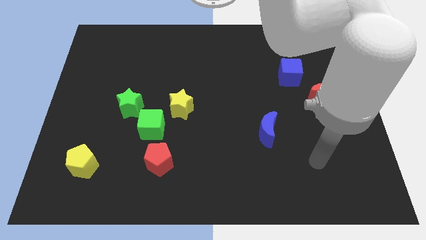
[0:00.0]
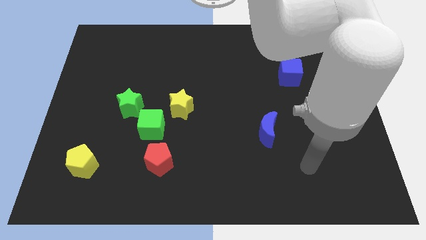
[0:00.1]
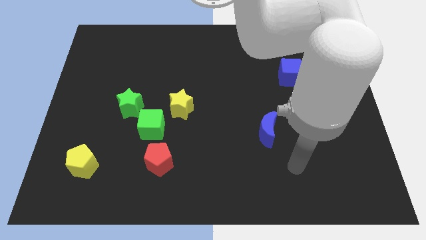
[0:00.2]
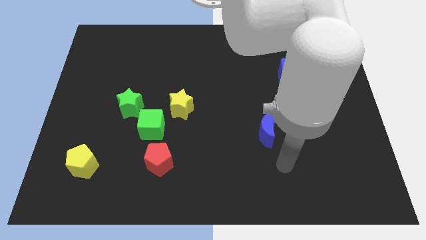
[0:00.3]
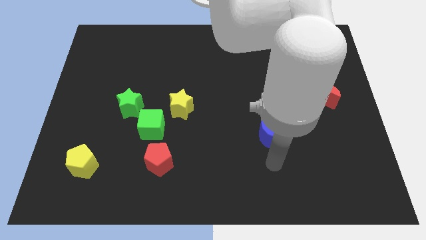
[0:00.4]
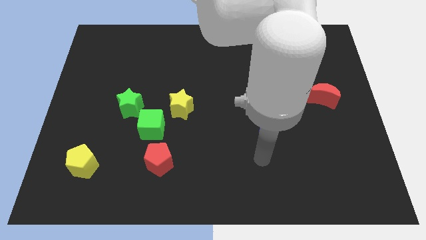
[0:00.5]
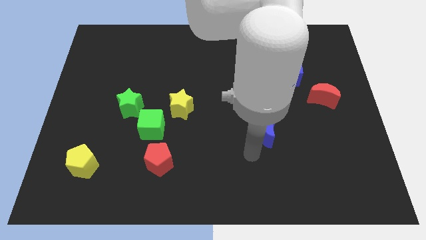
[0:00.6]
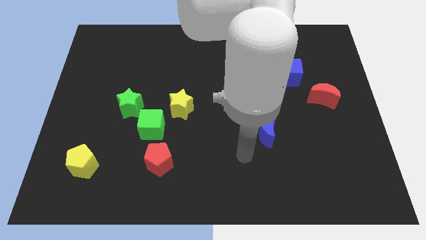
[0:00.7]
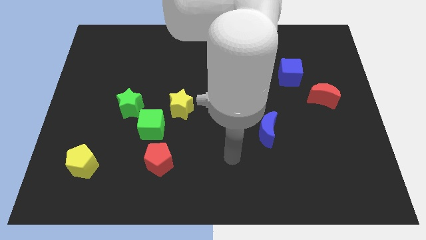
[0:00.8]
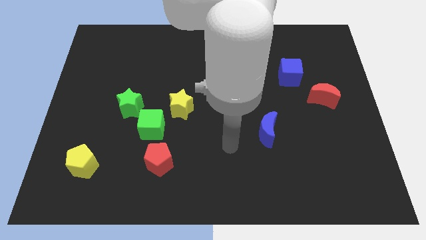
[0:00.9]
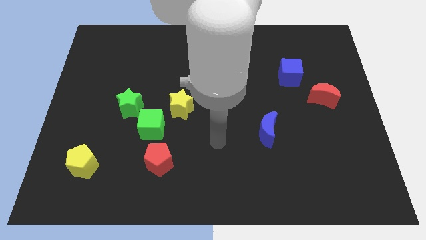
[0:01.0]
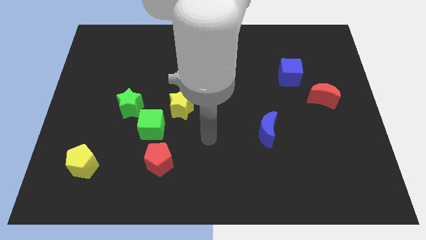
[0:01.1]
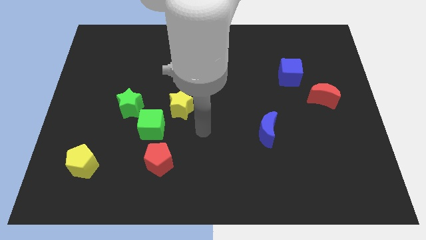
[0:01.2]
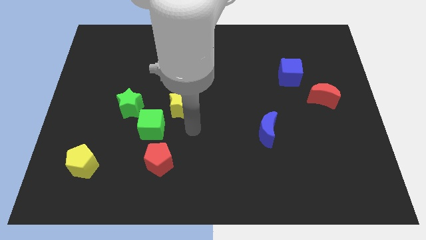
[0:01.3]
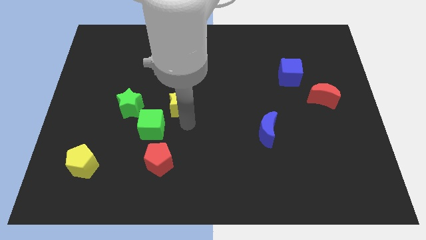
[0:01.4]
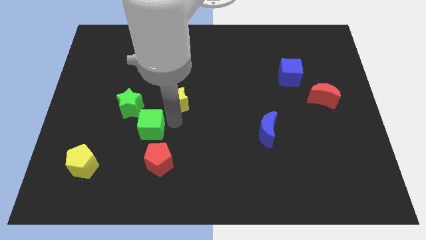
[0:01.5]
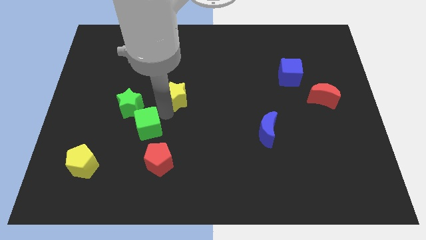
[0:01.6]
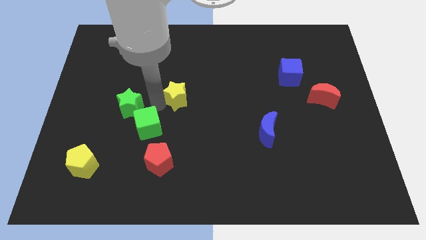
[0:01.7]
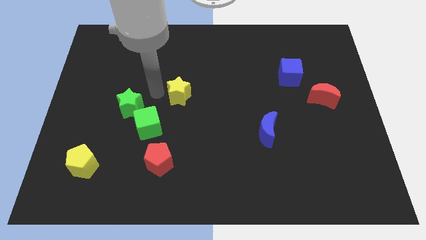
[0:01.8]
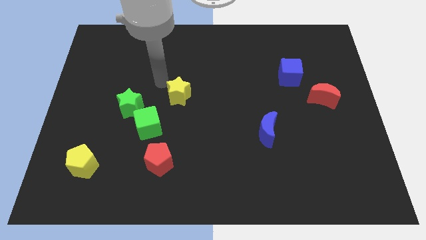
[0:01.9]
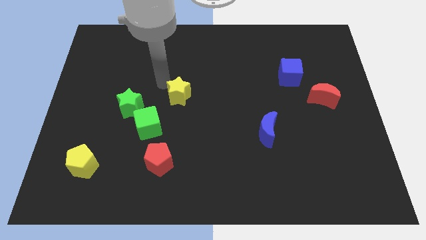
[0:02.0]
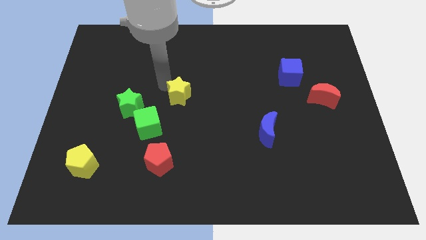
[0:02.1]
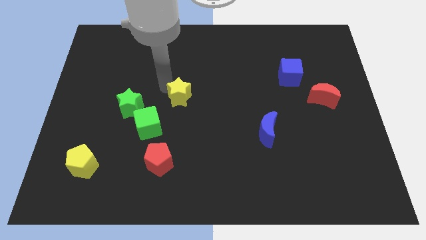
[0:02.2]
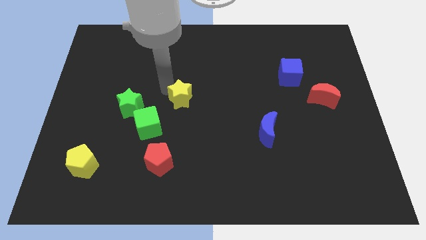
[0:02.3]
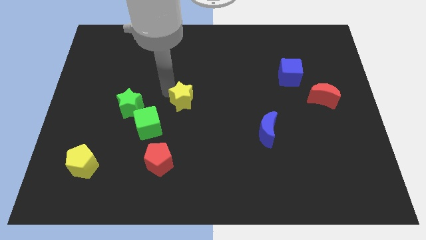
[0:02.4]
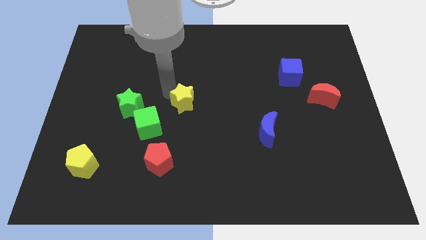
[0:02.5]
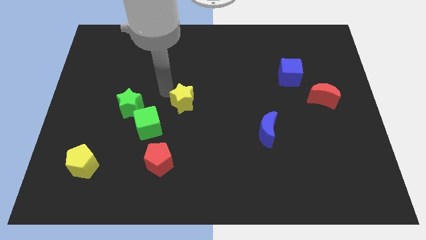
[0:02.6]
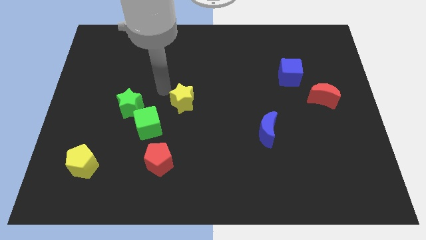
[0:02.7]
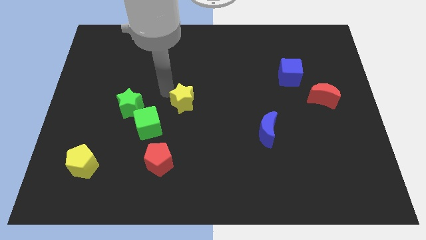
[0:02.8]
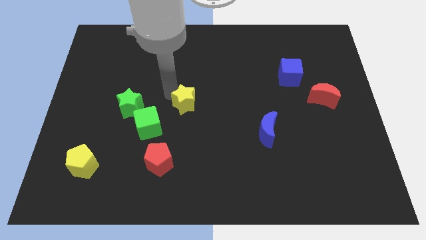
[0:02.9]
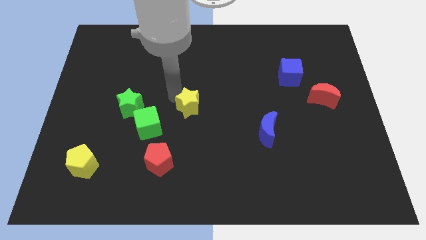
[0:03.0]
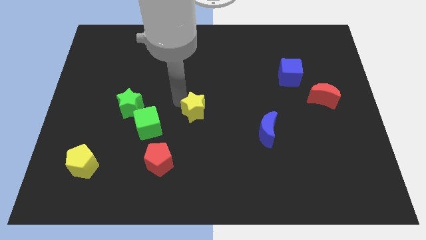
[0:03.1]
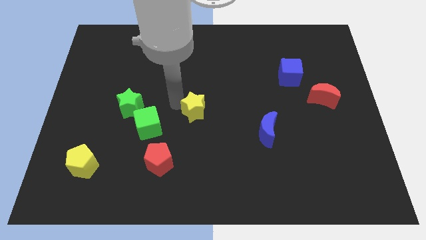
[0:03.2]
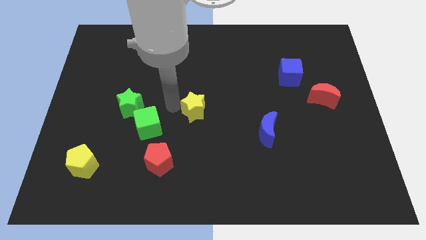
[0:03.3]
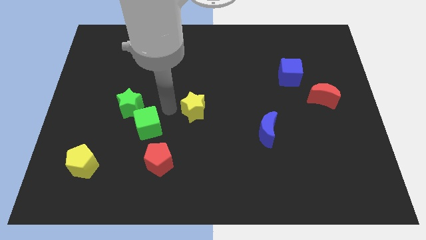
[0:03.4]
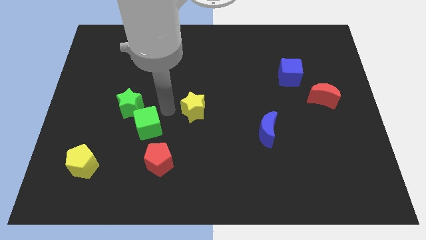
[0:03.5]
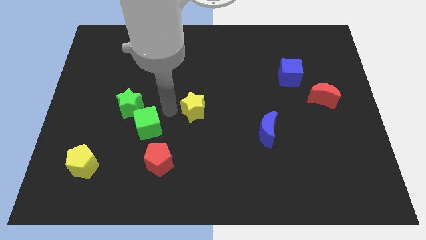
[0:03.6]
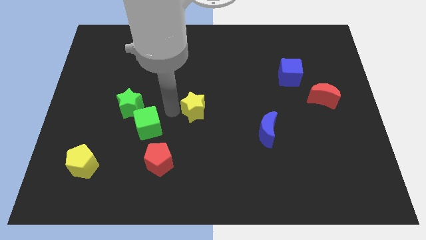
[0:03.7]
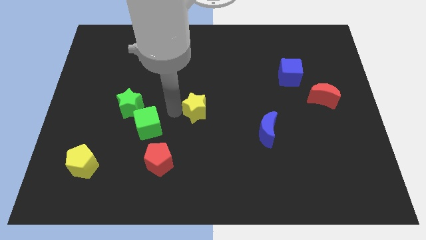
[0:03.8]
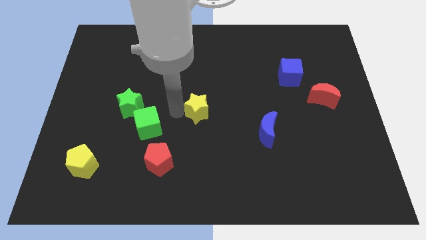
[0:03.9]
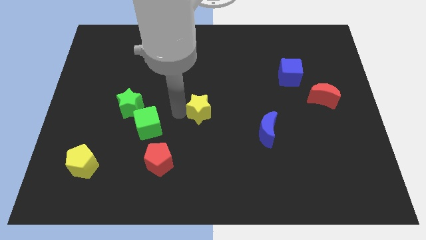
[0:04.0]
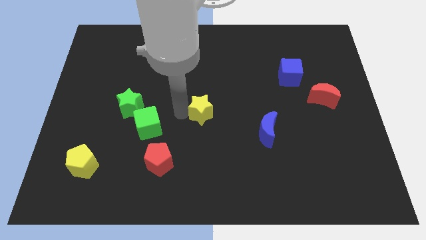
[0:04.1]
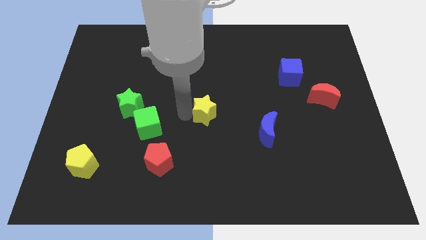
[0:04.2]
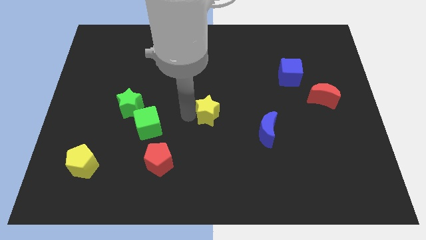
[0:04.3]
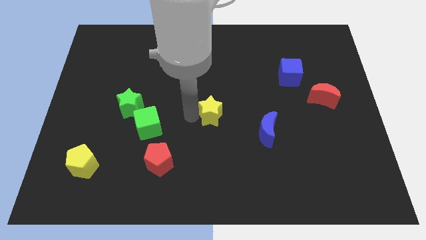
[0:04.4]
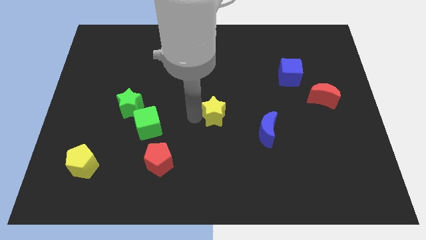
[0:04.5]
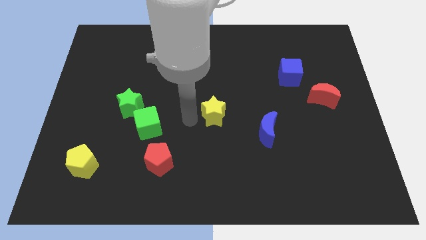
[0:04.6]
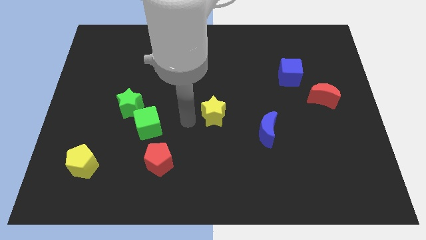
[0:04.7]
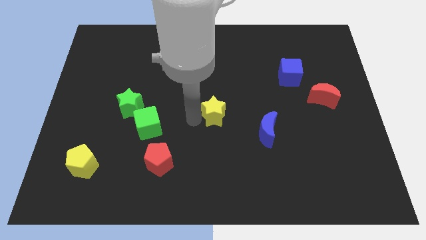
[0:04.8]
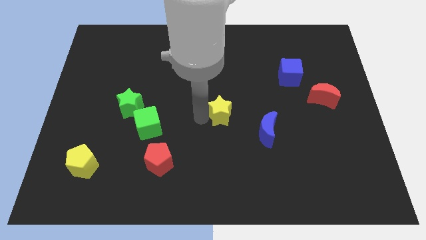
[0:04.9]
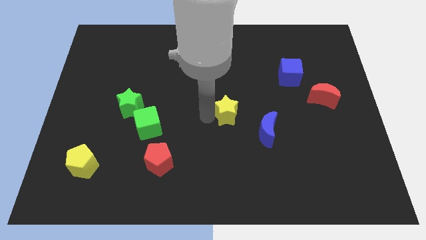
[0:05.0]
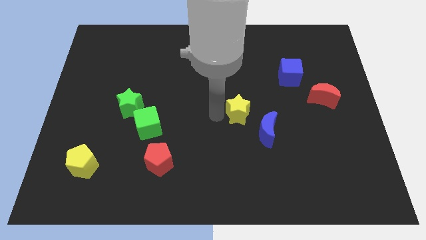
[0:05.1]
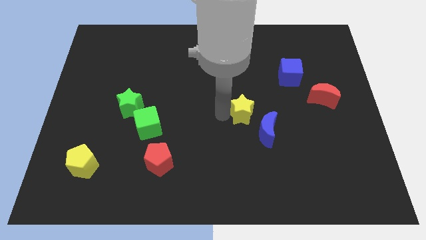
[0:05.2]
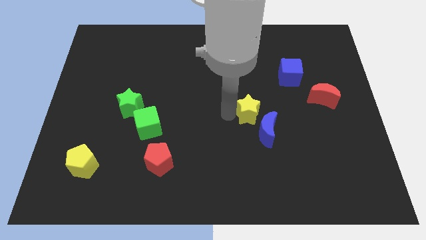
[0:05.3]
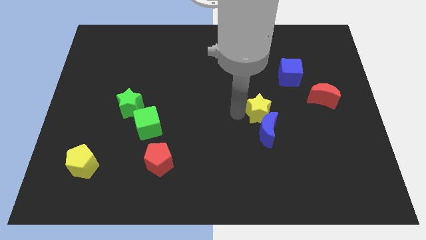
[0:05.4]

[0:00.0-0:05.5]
put the yellow star to the top right side of the blue moon

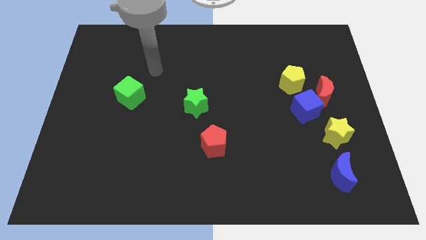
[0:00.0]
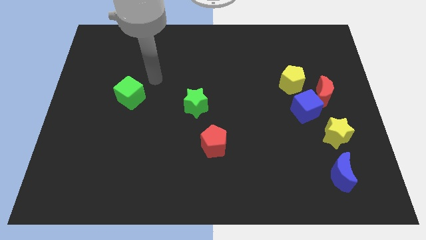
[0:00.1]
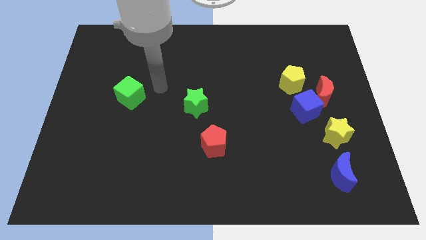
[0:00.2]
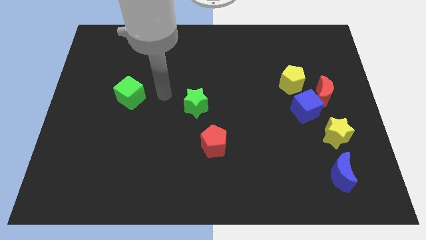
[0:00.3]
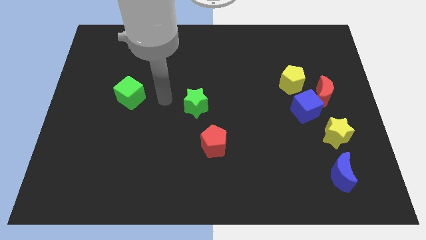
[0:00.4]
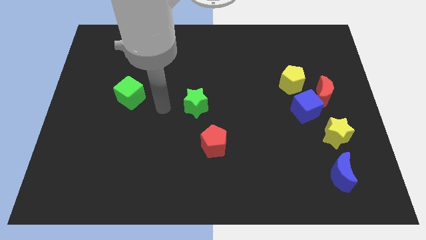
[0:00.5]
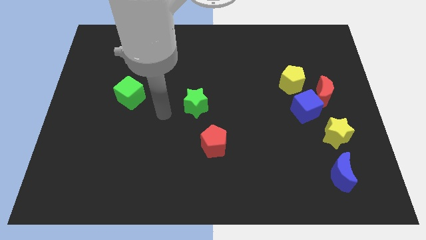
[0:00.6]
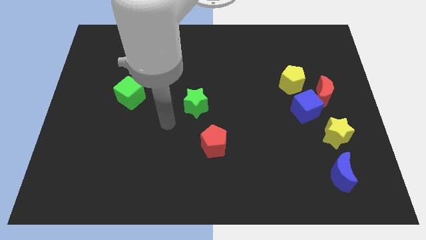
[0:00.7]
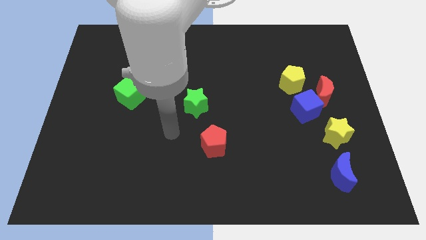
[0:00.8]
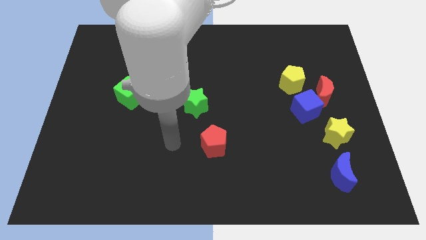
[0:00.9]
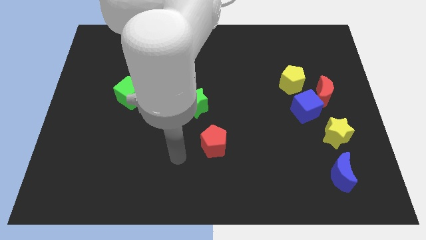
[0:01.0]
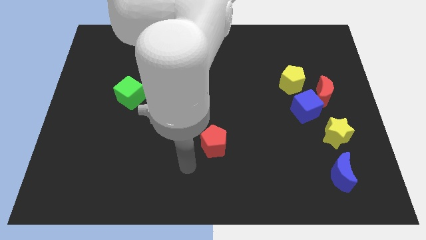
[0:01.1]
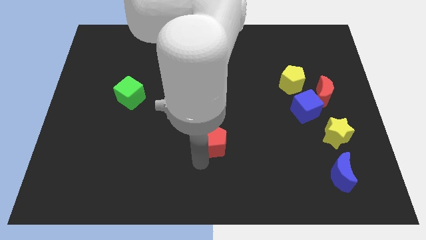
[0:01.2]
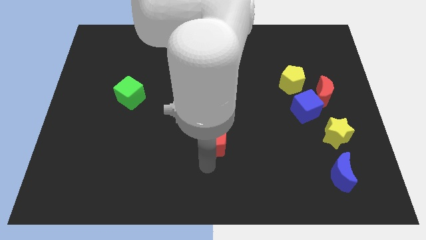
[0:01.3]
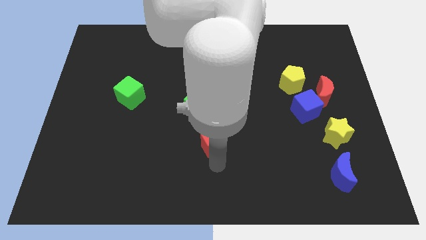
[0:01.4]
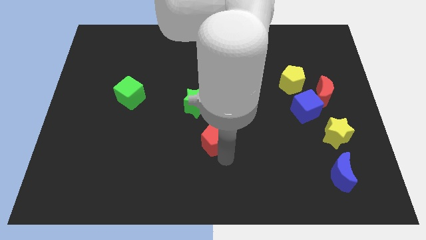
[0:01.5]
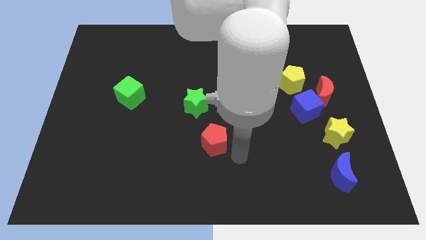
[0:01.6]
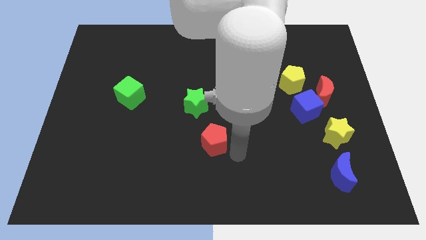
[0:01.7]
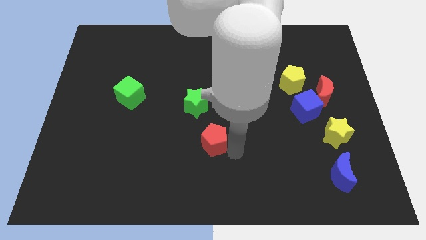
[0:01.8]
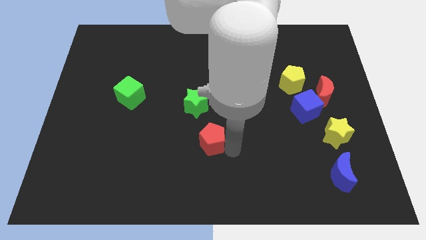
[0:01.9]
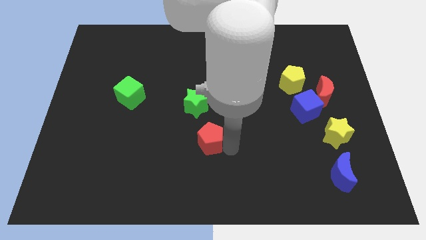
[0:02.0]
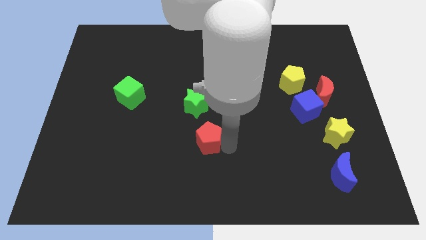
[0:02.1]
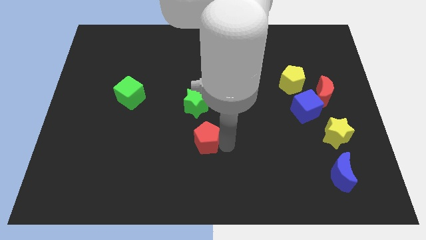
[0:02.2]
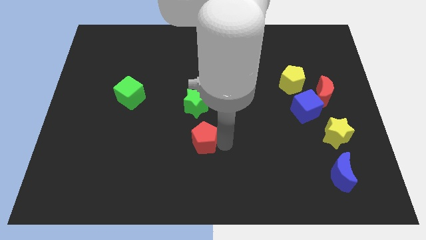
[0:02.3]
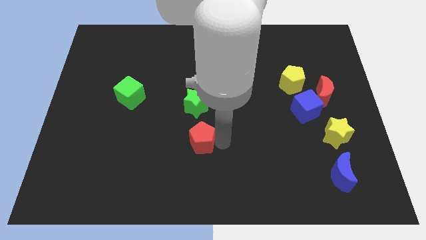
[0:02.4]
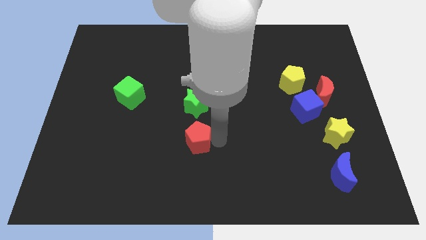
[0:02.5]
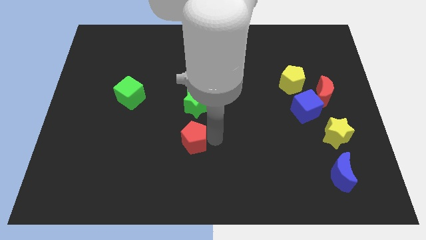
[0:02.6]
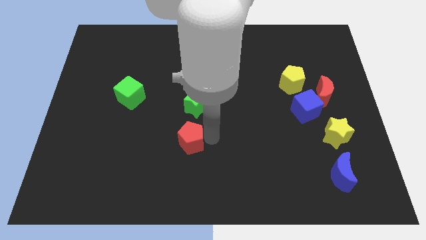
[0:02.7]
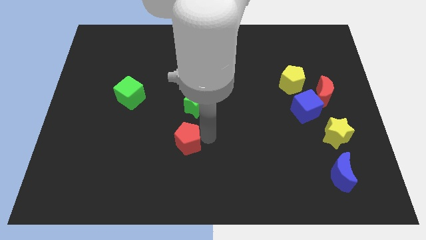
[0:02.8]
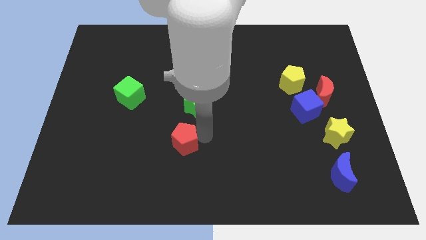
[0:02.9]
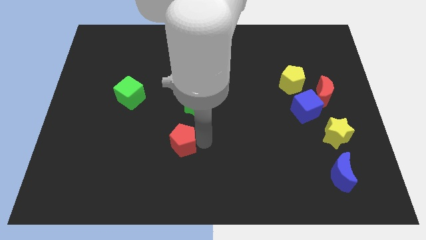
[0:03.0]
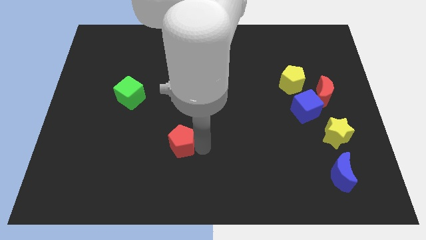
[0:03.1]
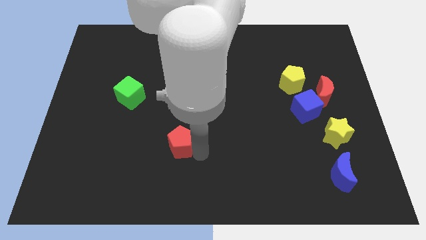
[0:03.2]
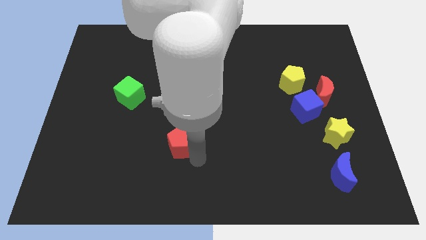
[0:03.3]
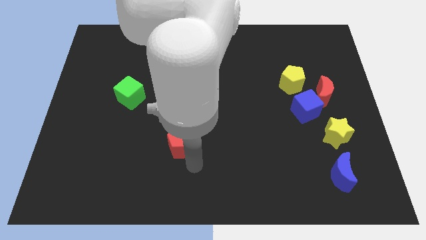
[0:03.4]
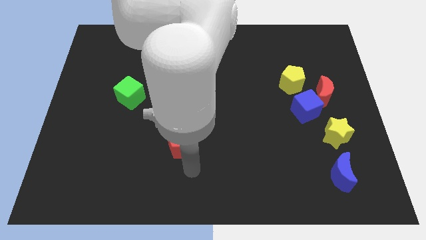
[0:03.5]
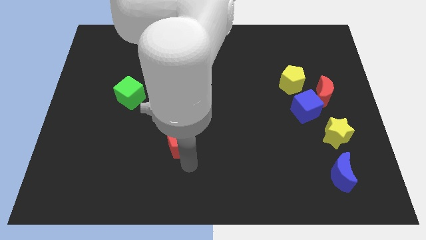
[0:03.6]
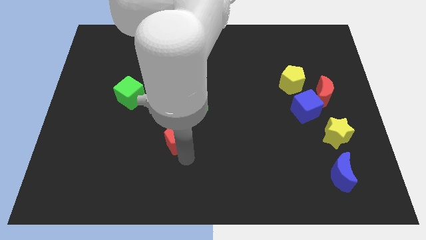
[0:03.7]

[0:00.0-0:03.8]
slide the red pentagon to the bottom left side of the green star
